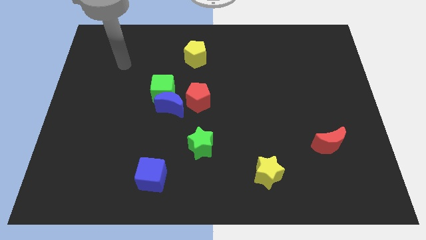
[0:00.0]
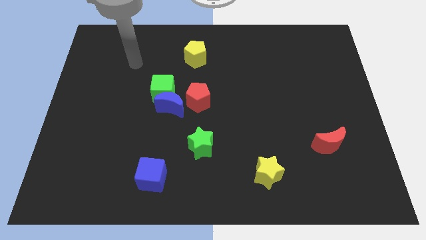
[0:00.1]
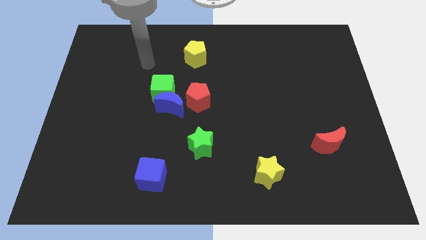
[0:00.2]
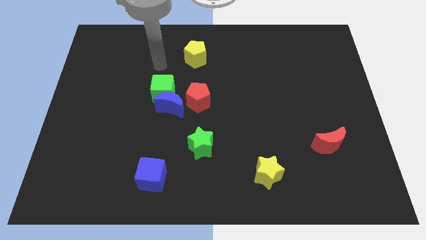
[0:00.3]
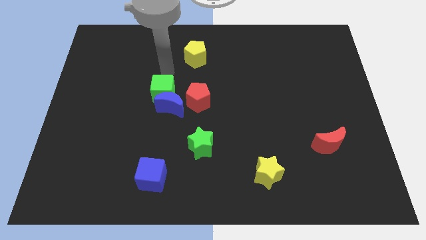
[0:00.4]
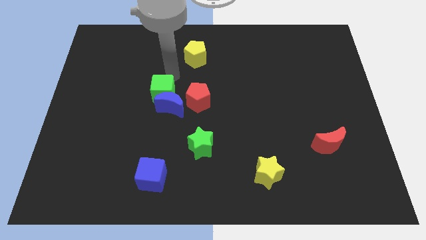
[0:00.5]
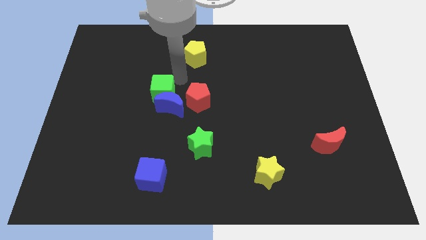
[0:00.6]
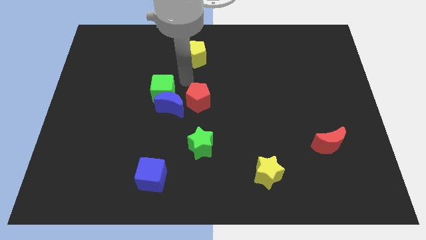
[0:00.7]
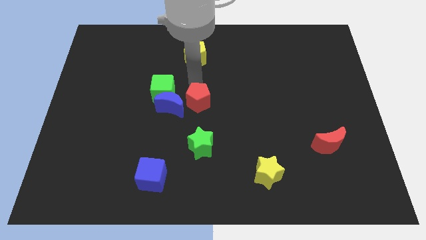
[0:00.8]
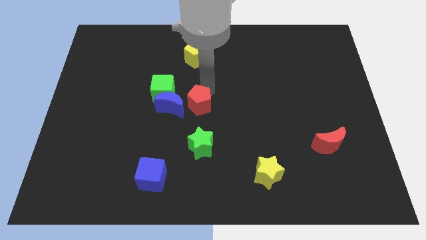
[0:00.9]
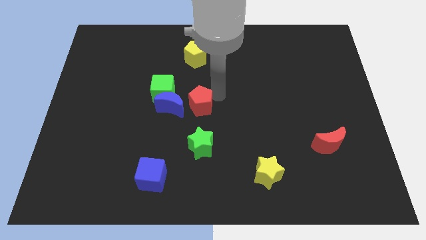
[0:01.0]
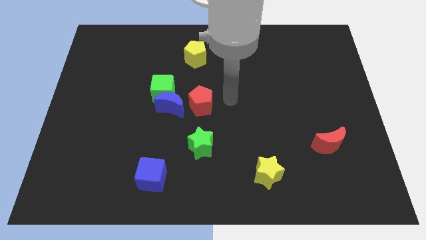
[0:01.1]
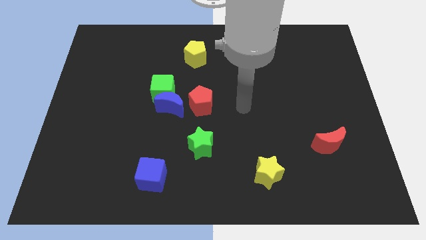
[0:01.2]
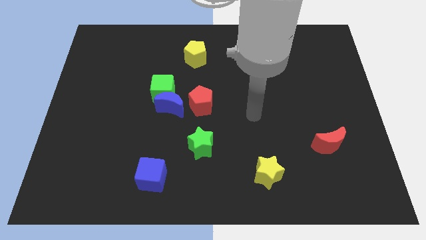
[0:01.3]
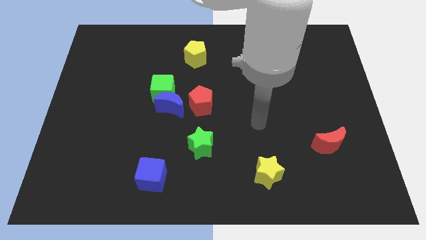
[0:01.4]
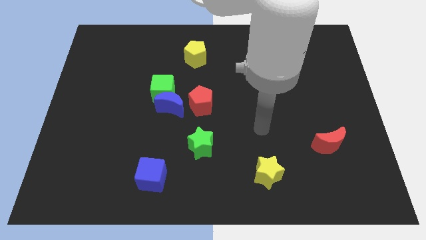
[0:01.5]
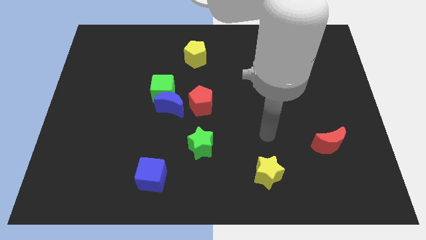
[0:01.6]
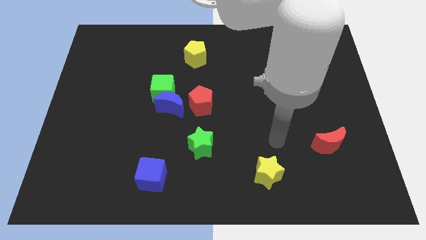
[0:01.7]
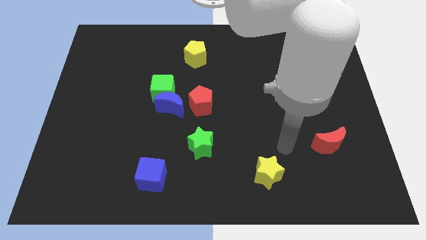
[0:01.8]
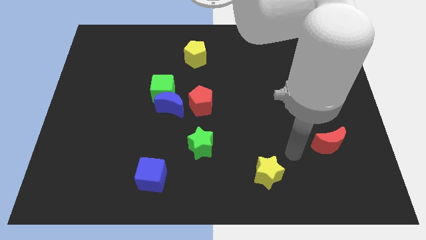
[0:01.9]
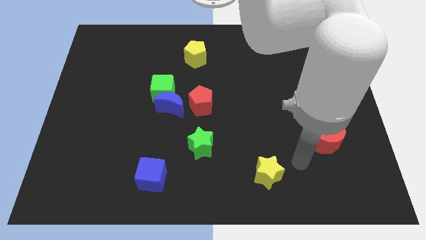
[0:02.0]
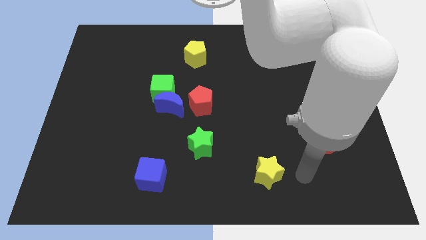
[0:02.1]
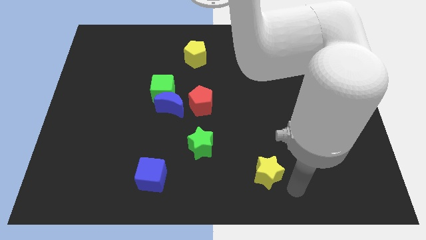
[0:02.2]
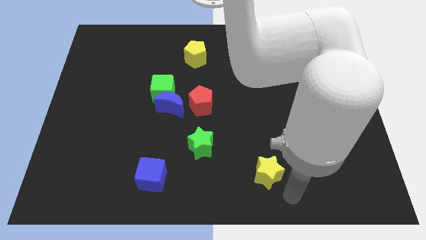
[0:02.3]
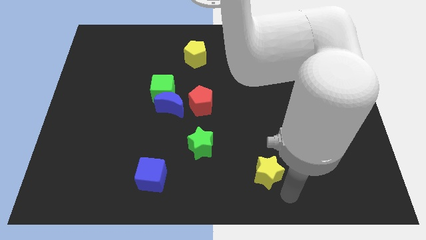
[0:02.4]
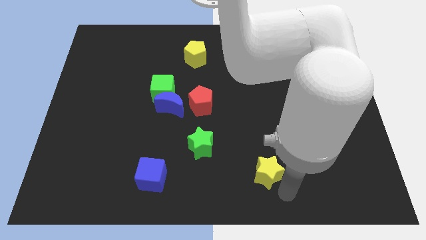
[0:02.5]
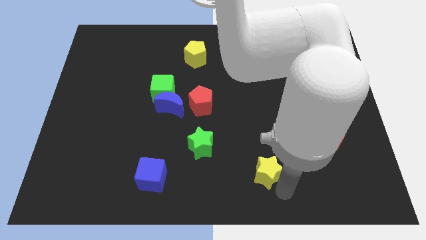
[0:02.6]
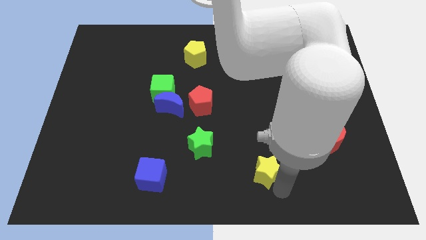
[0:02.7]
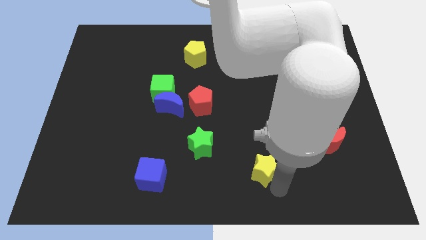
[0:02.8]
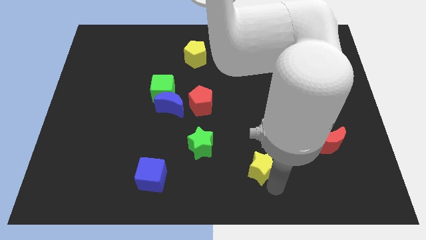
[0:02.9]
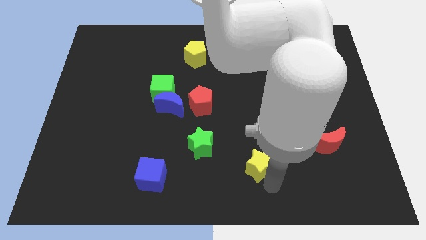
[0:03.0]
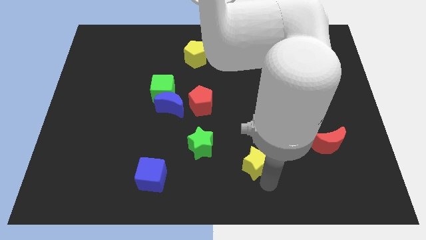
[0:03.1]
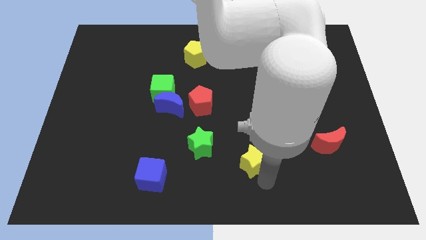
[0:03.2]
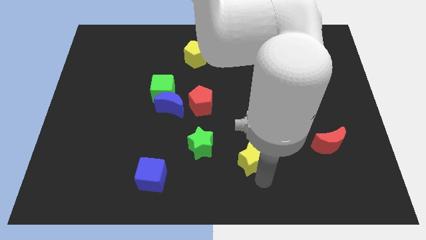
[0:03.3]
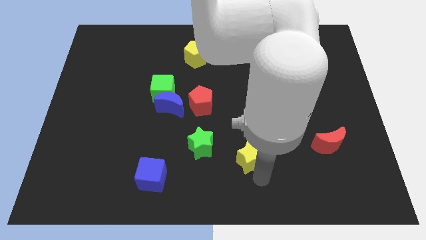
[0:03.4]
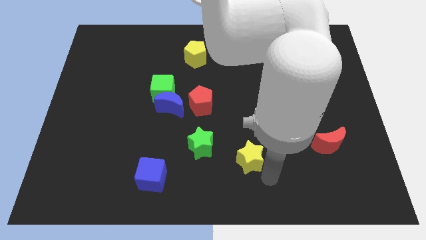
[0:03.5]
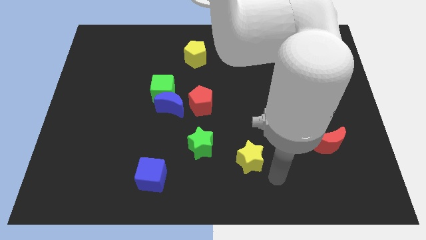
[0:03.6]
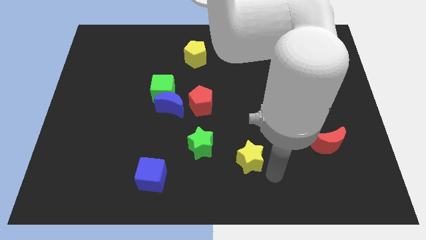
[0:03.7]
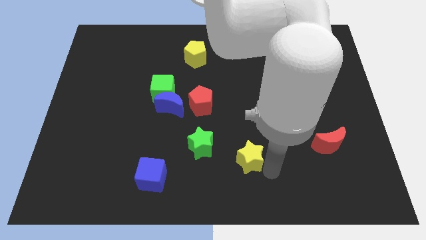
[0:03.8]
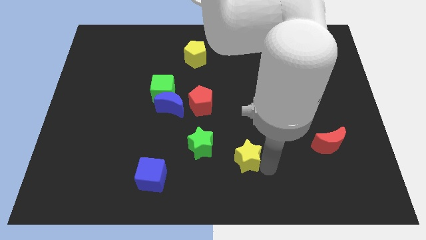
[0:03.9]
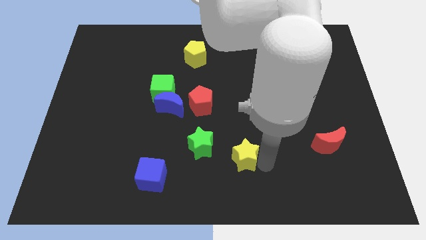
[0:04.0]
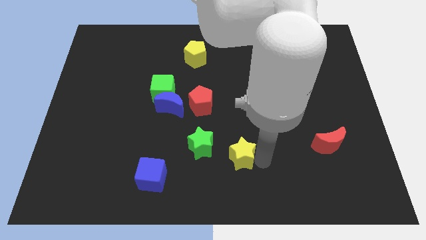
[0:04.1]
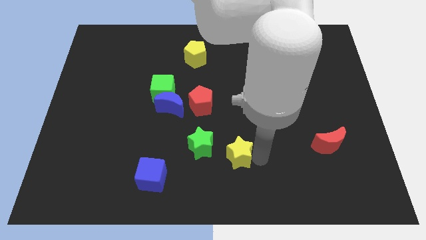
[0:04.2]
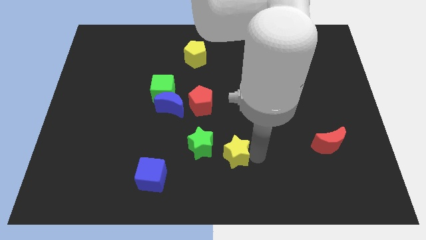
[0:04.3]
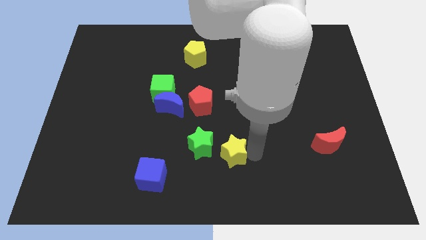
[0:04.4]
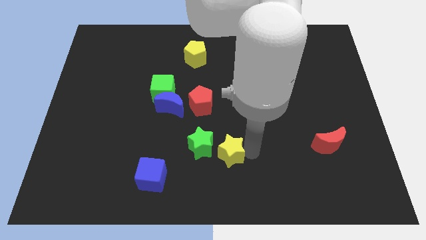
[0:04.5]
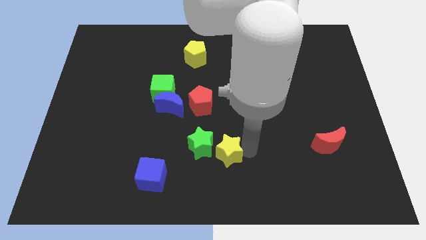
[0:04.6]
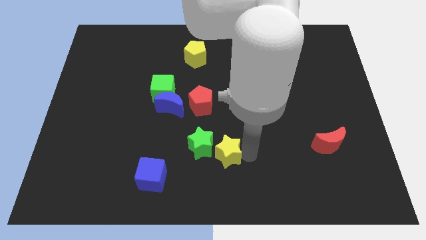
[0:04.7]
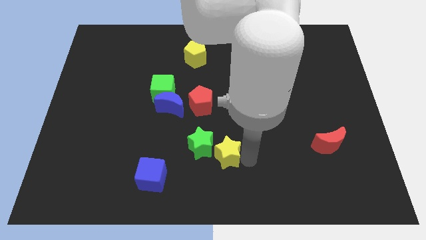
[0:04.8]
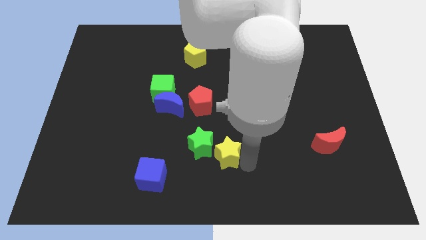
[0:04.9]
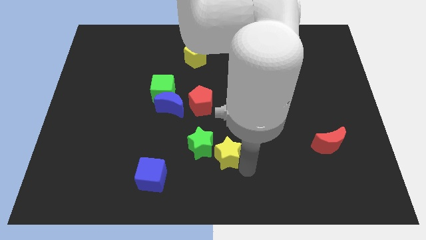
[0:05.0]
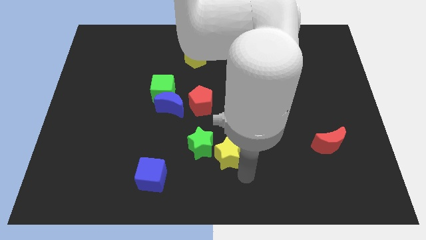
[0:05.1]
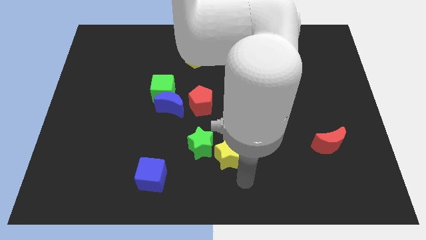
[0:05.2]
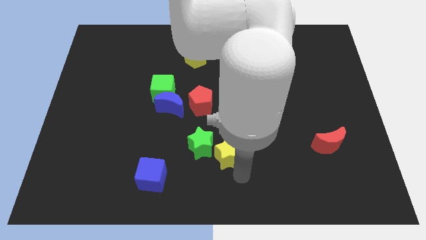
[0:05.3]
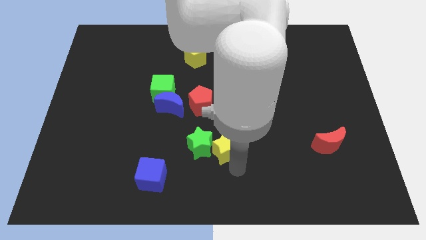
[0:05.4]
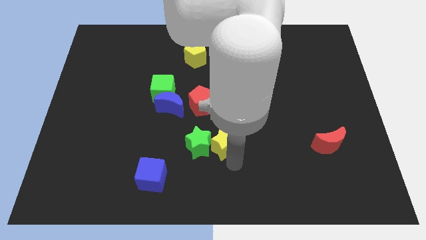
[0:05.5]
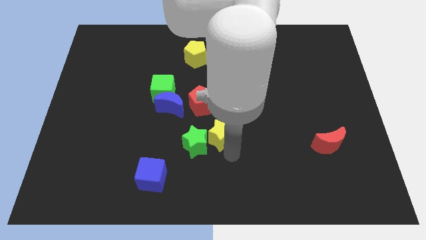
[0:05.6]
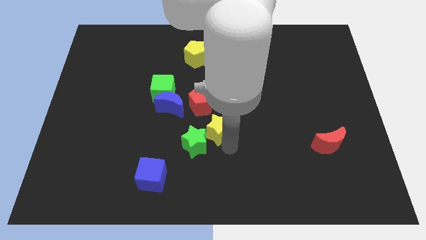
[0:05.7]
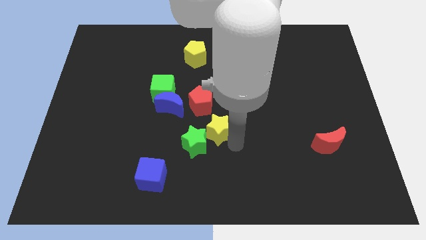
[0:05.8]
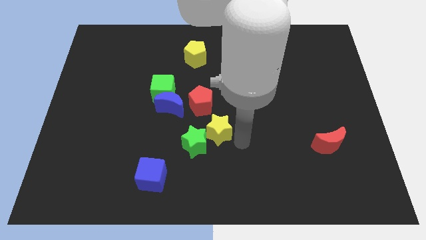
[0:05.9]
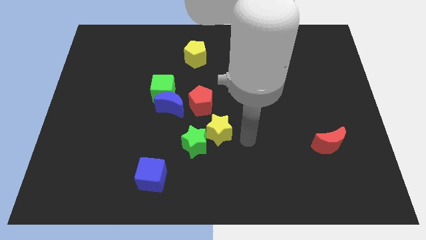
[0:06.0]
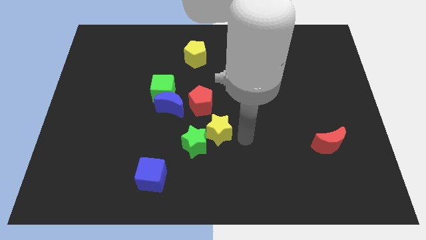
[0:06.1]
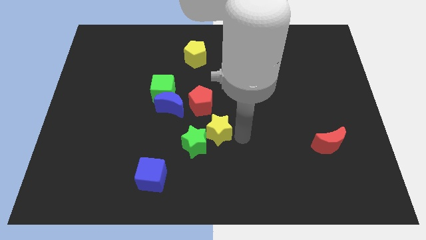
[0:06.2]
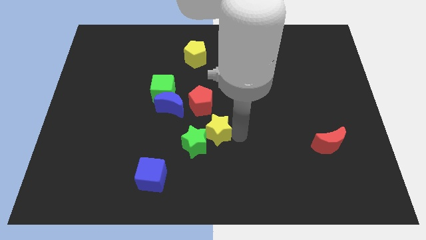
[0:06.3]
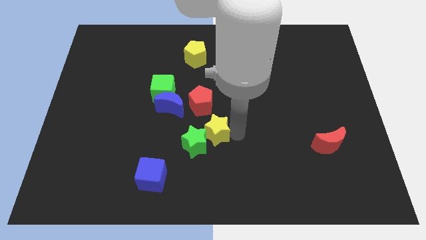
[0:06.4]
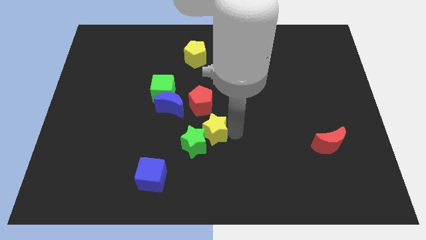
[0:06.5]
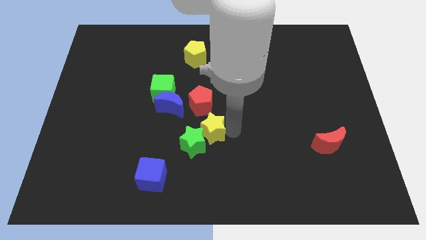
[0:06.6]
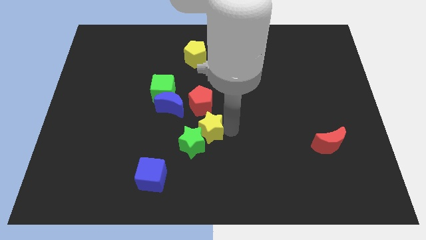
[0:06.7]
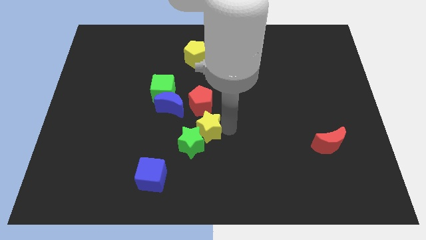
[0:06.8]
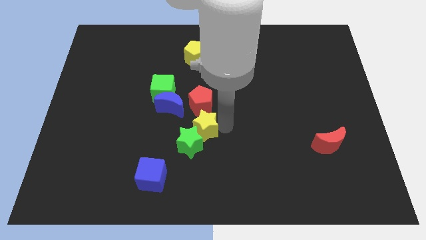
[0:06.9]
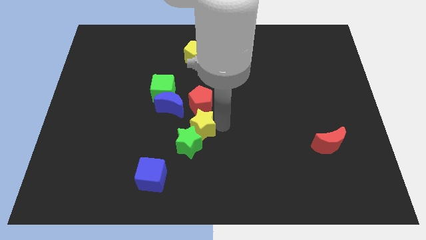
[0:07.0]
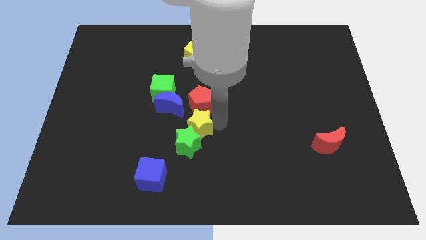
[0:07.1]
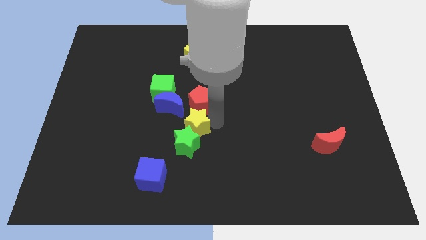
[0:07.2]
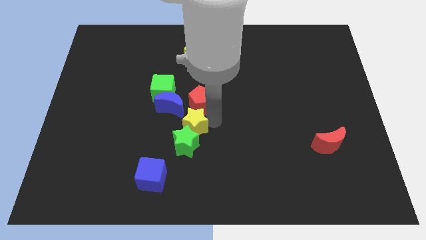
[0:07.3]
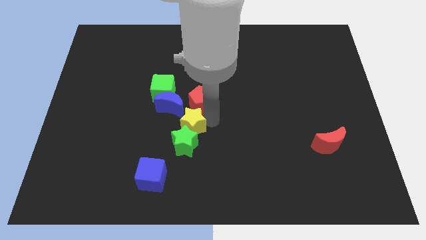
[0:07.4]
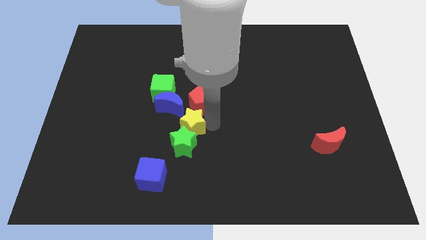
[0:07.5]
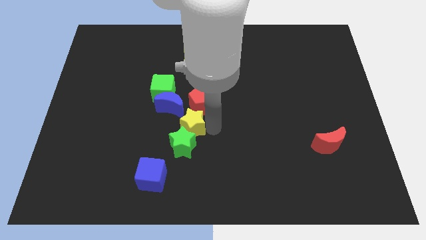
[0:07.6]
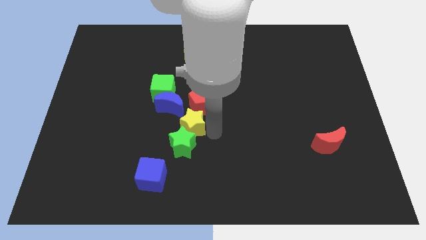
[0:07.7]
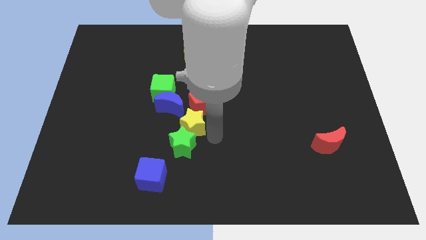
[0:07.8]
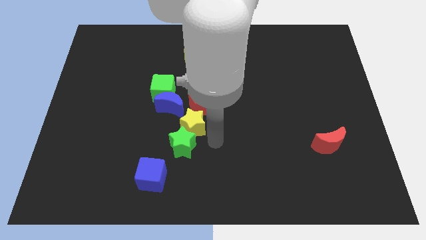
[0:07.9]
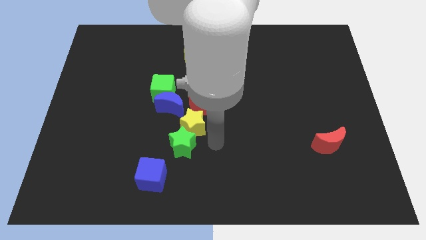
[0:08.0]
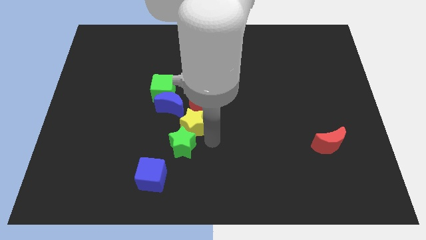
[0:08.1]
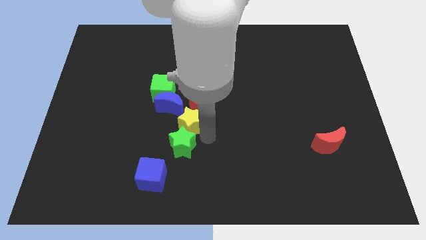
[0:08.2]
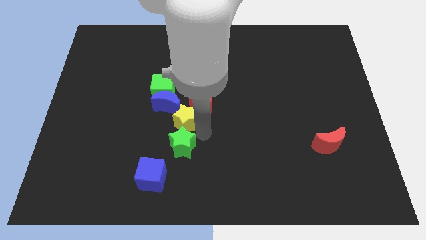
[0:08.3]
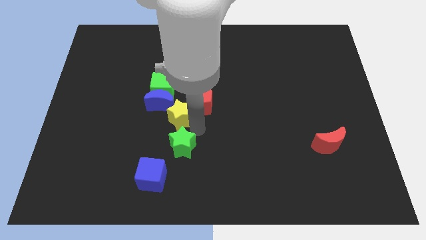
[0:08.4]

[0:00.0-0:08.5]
slide the yellow star next to the blue moon
